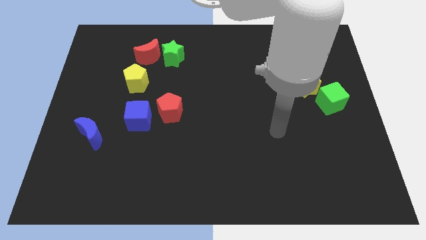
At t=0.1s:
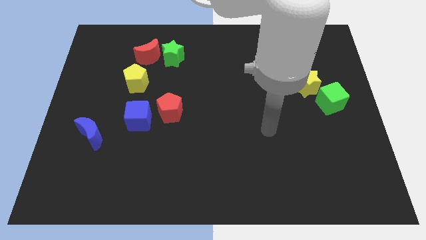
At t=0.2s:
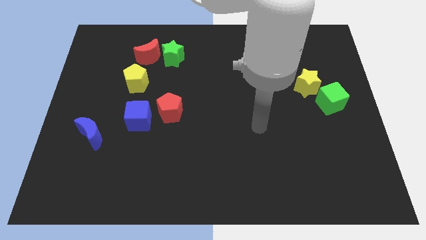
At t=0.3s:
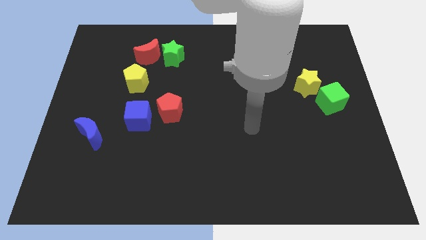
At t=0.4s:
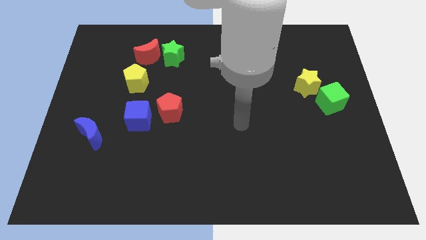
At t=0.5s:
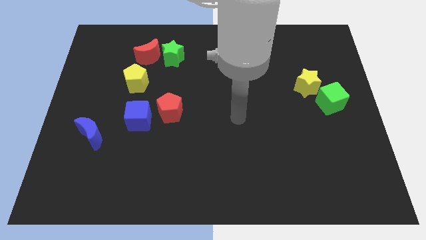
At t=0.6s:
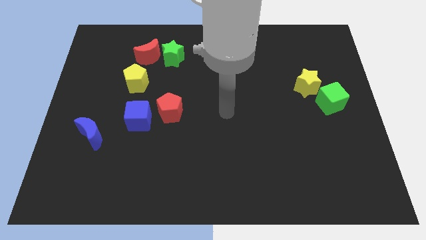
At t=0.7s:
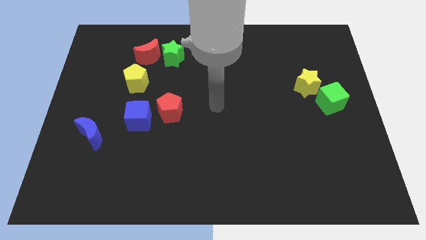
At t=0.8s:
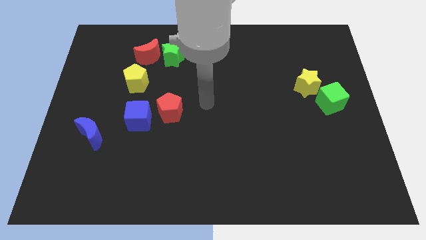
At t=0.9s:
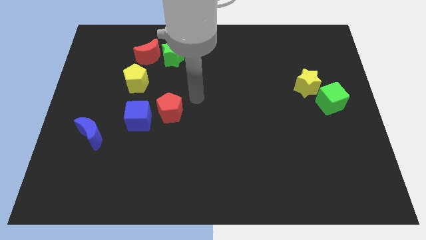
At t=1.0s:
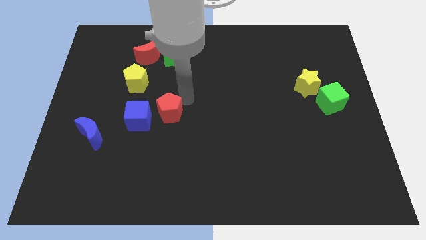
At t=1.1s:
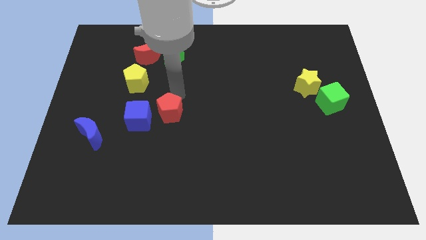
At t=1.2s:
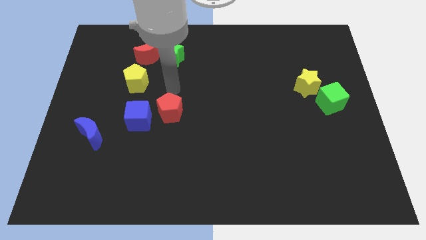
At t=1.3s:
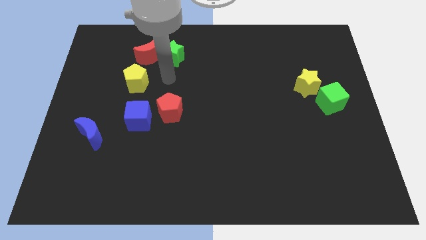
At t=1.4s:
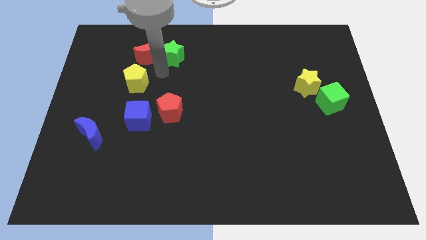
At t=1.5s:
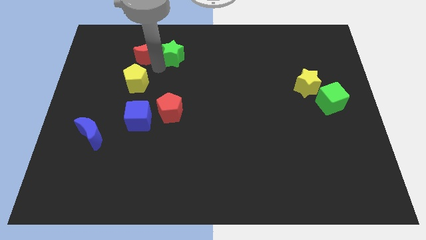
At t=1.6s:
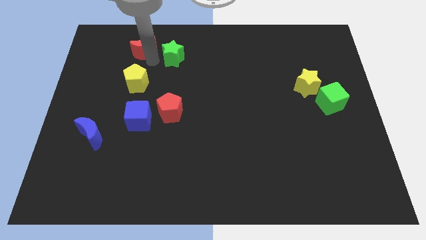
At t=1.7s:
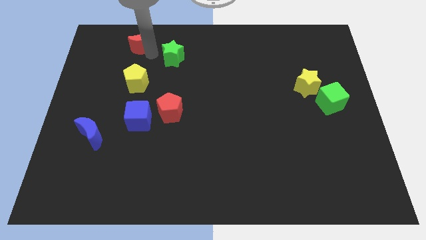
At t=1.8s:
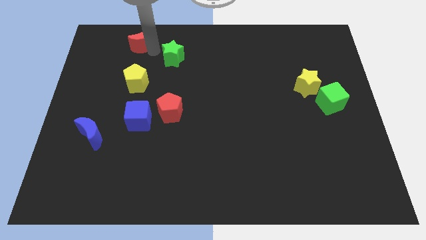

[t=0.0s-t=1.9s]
move the green star away from the red moon

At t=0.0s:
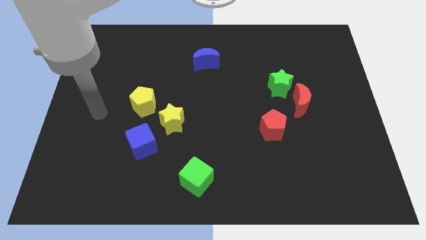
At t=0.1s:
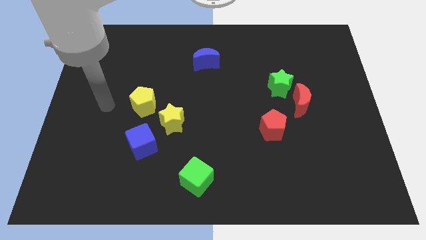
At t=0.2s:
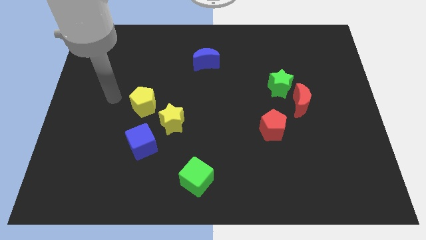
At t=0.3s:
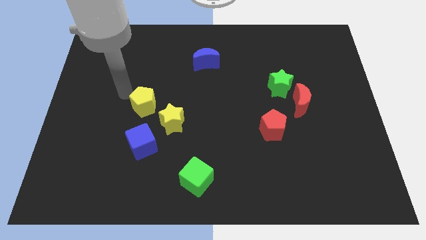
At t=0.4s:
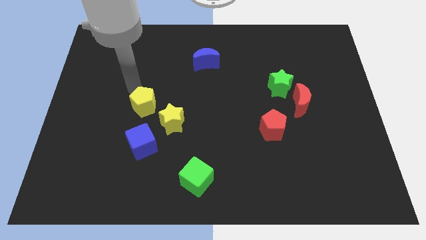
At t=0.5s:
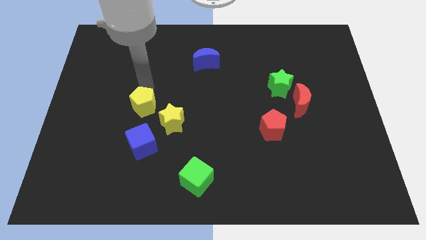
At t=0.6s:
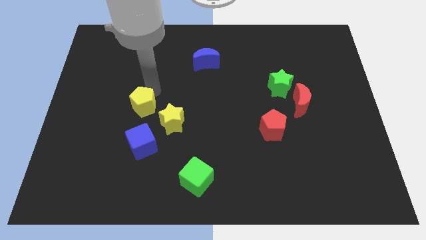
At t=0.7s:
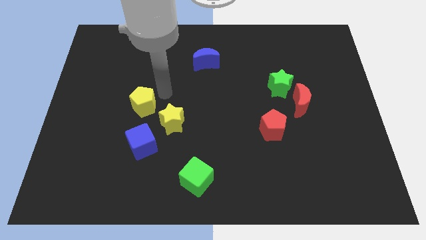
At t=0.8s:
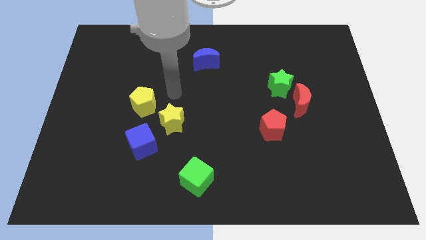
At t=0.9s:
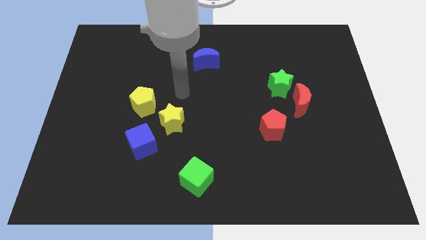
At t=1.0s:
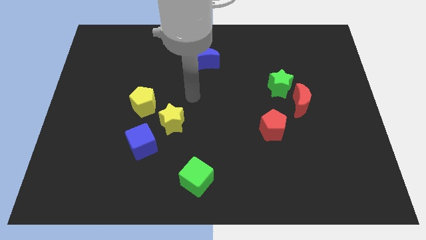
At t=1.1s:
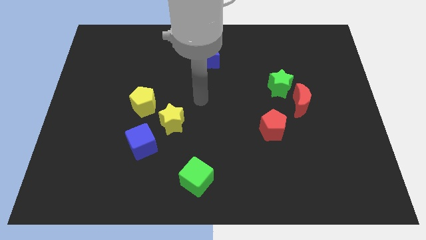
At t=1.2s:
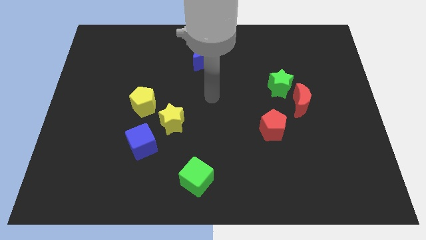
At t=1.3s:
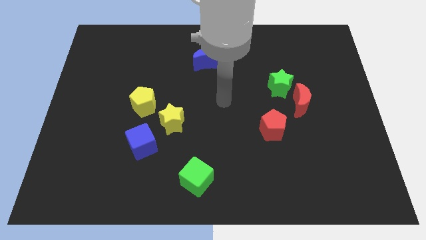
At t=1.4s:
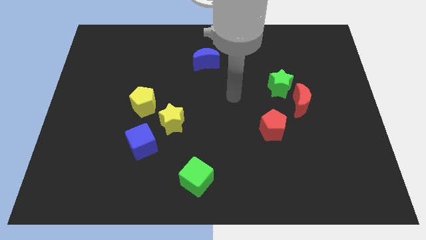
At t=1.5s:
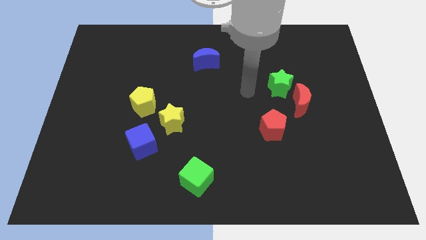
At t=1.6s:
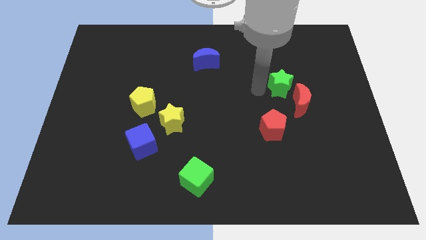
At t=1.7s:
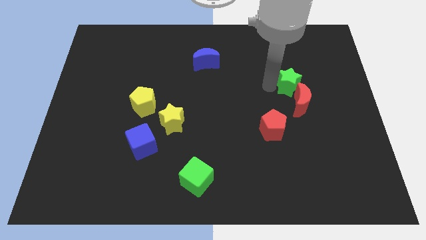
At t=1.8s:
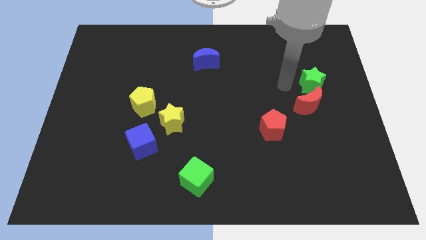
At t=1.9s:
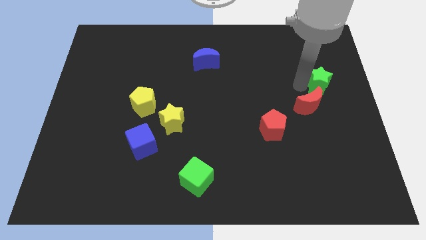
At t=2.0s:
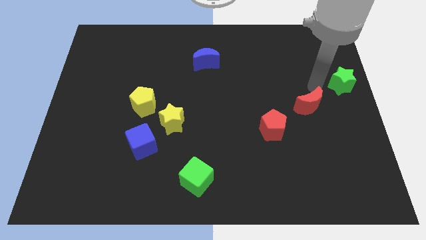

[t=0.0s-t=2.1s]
pull the red moon apart from the green star

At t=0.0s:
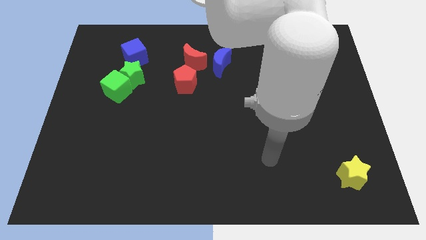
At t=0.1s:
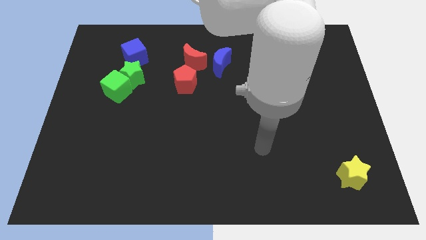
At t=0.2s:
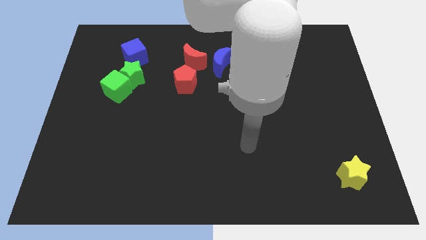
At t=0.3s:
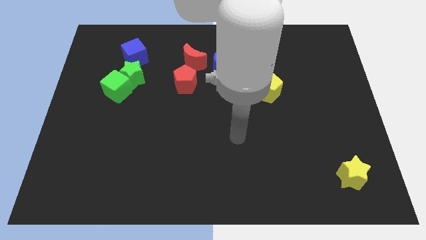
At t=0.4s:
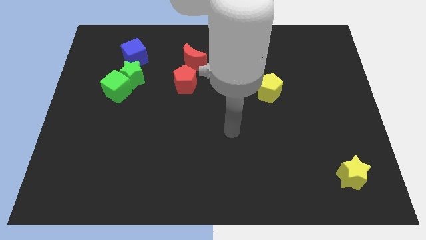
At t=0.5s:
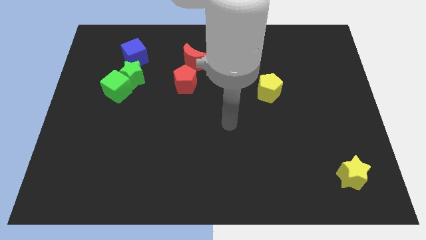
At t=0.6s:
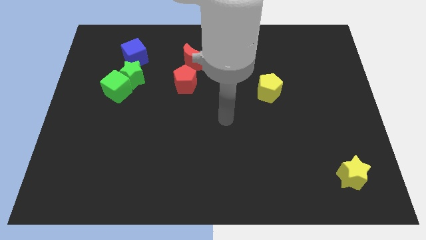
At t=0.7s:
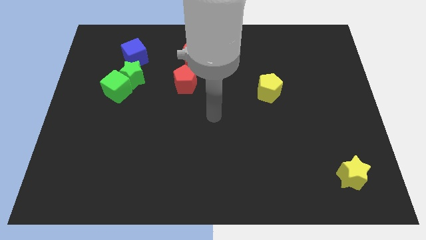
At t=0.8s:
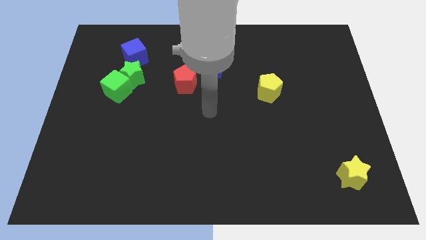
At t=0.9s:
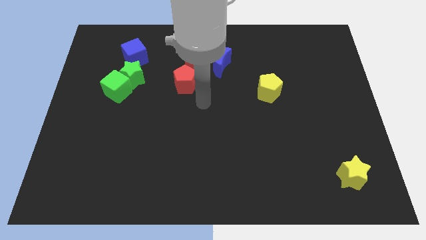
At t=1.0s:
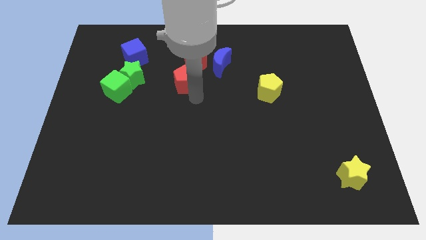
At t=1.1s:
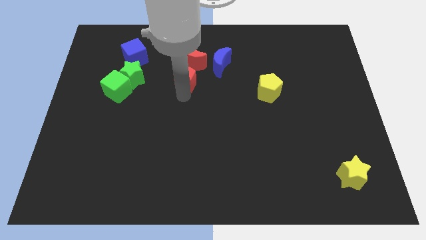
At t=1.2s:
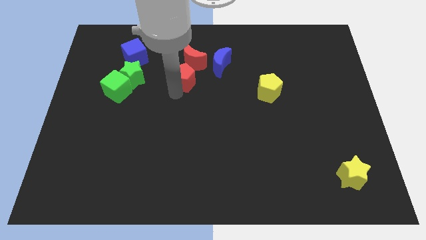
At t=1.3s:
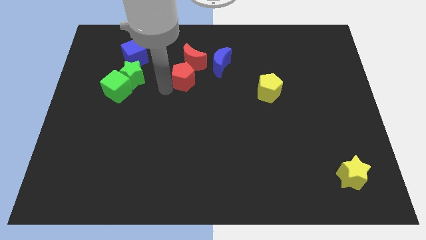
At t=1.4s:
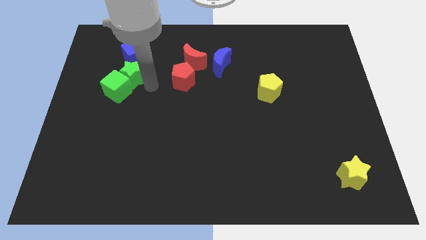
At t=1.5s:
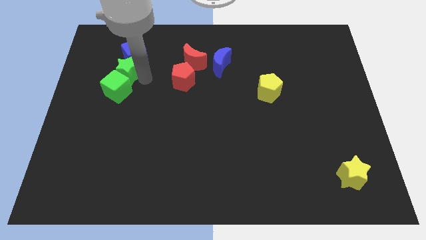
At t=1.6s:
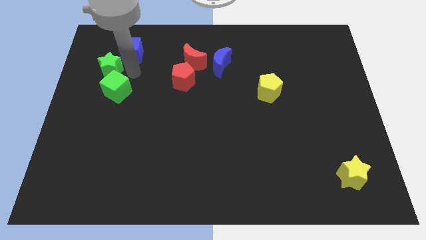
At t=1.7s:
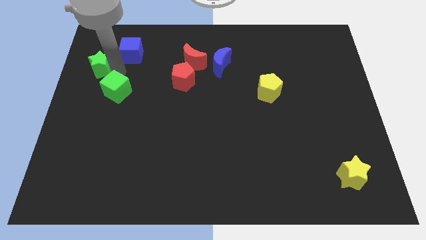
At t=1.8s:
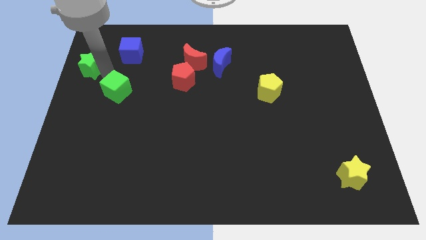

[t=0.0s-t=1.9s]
move the green cube away from the green star

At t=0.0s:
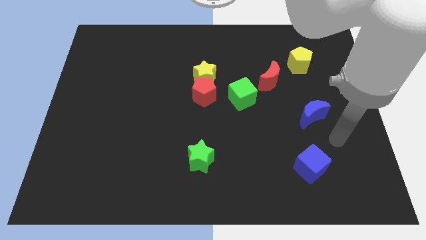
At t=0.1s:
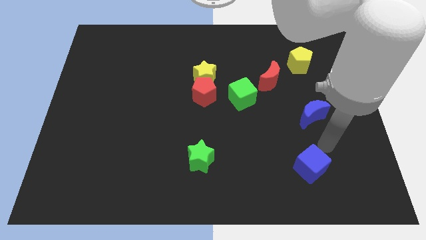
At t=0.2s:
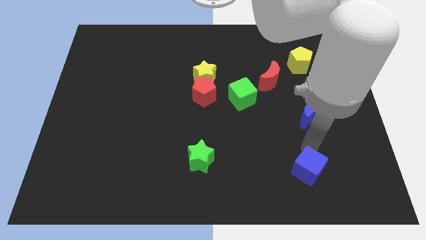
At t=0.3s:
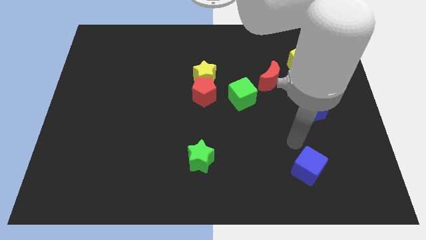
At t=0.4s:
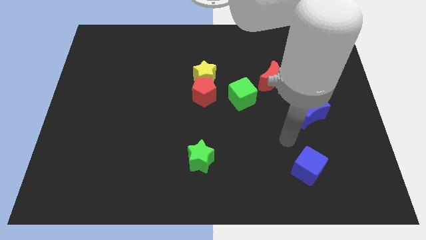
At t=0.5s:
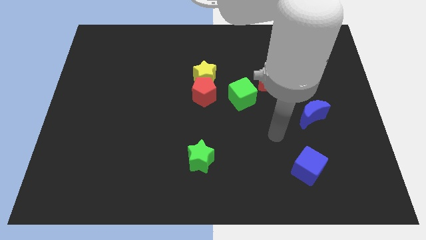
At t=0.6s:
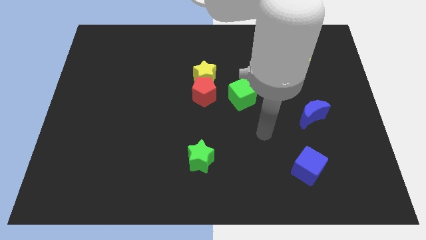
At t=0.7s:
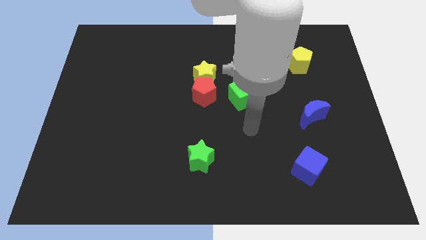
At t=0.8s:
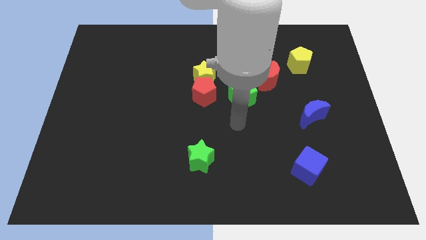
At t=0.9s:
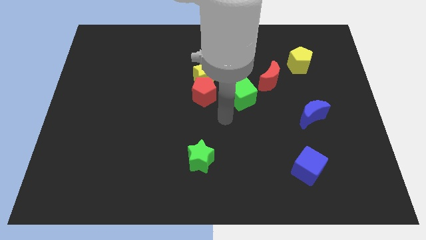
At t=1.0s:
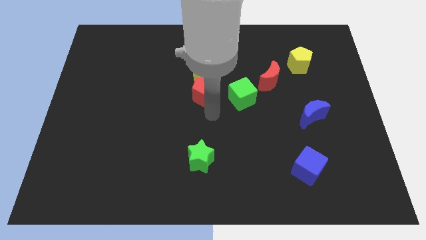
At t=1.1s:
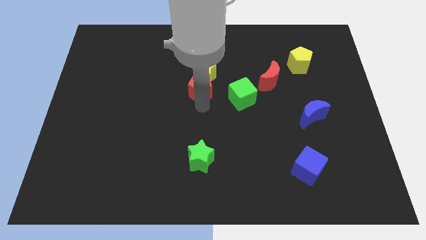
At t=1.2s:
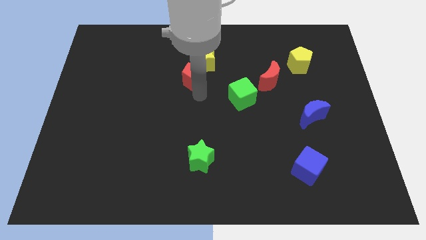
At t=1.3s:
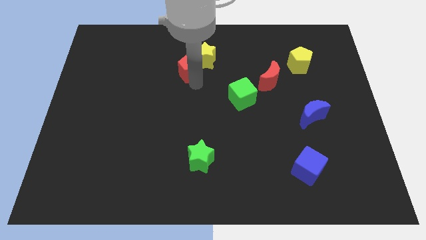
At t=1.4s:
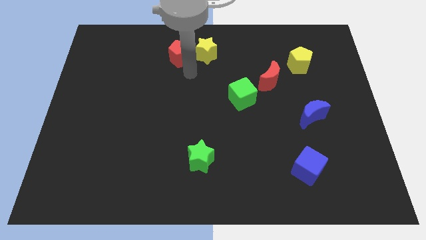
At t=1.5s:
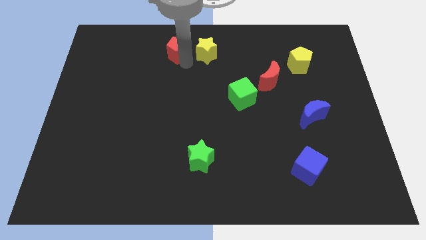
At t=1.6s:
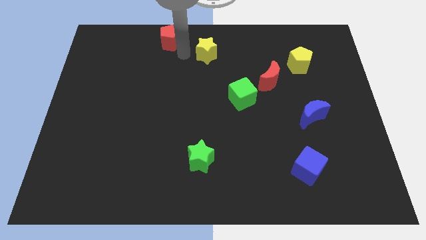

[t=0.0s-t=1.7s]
pull the yellow star apart from the red pentagon

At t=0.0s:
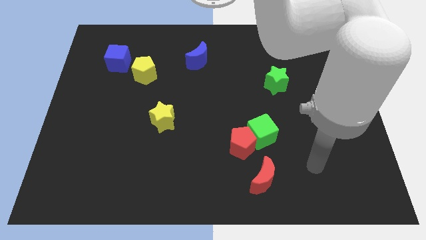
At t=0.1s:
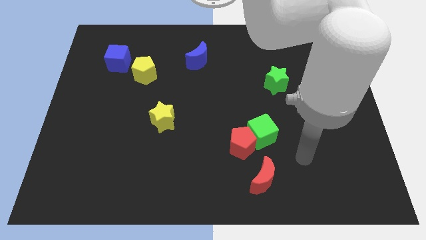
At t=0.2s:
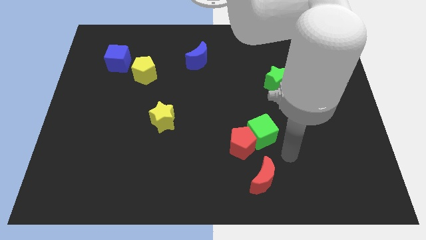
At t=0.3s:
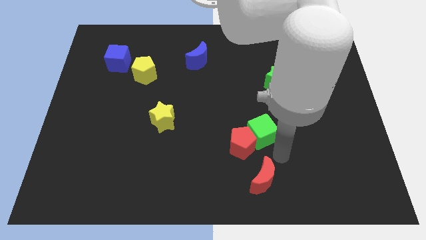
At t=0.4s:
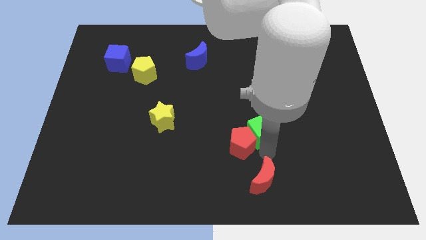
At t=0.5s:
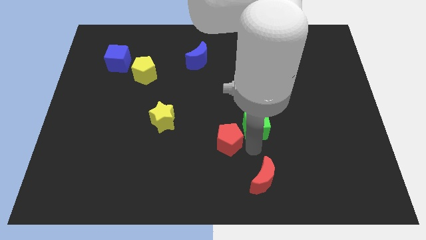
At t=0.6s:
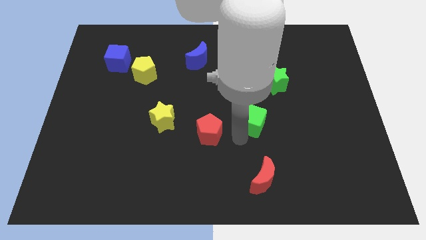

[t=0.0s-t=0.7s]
pull the green cube apart from the red pentagon

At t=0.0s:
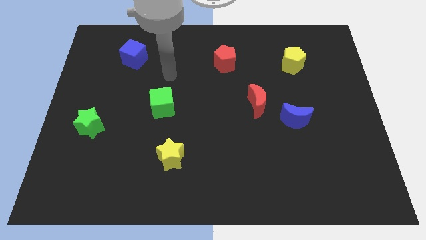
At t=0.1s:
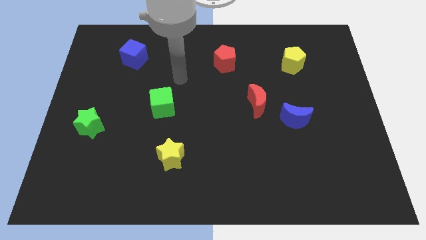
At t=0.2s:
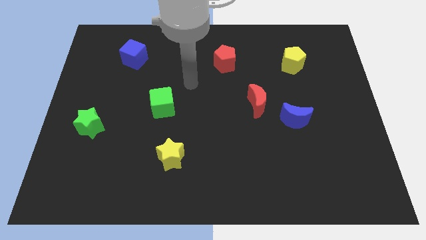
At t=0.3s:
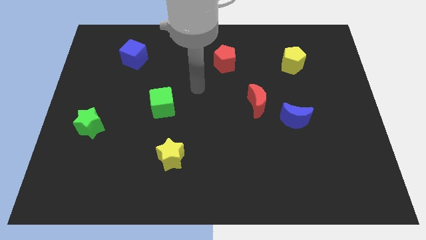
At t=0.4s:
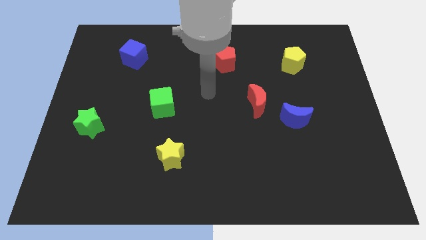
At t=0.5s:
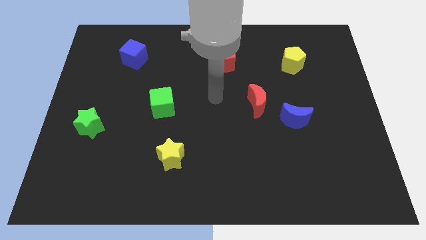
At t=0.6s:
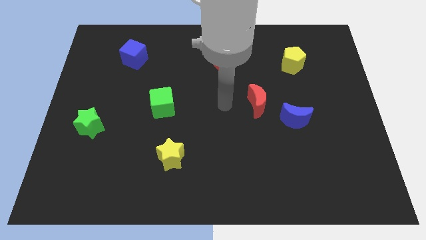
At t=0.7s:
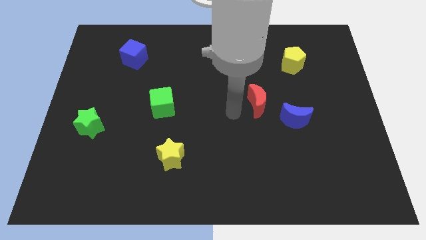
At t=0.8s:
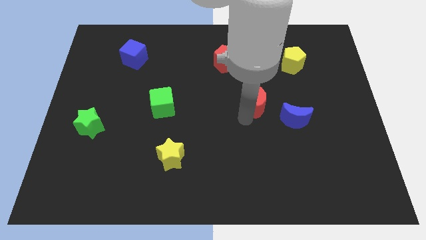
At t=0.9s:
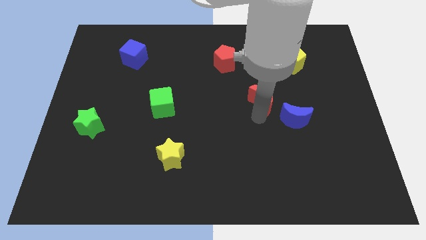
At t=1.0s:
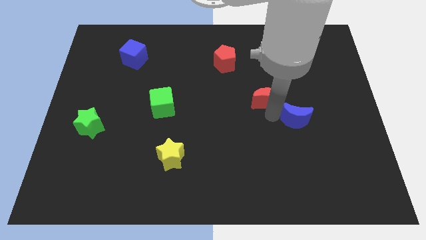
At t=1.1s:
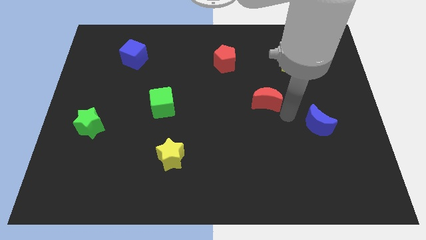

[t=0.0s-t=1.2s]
pull the red moon apart from the blue moon

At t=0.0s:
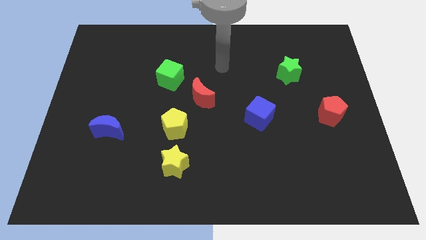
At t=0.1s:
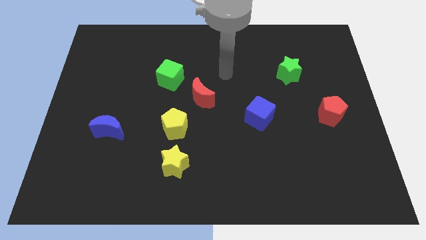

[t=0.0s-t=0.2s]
move the yellow star away from the yellow pentagon
